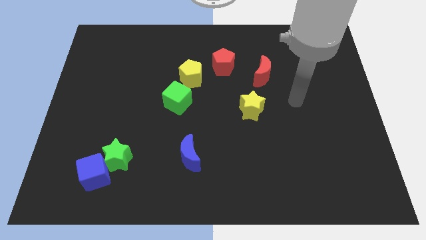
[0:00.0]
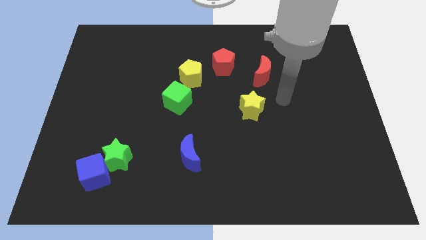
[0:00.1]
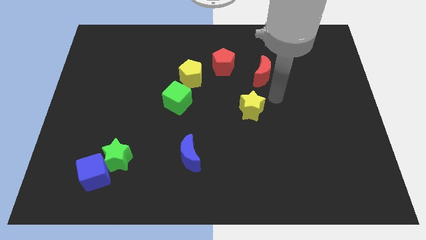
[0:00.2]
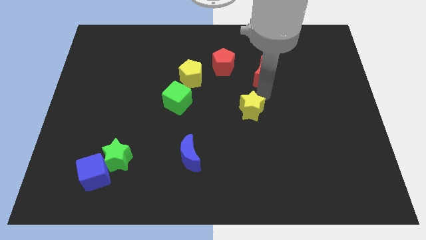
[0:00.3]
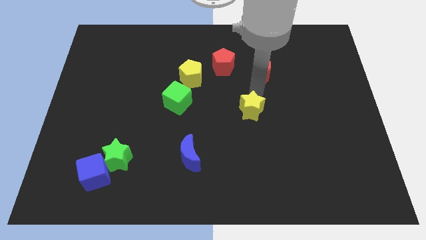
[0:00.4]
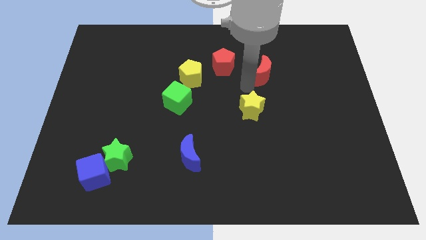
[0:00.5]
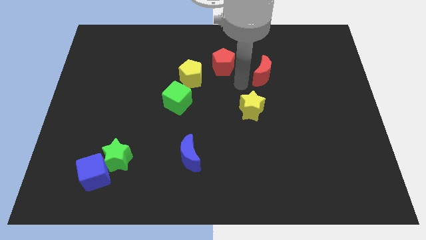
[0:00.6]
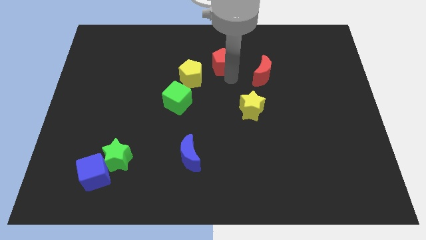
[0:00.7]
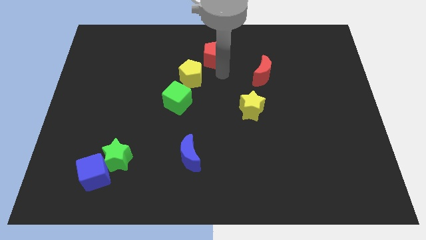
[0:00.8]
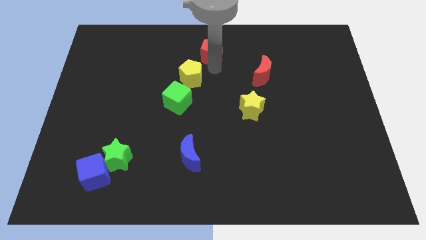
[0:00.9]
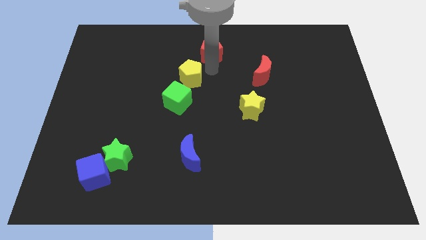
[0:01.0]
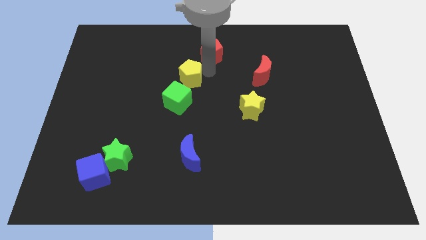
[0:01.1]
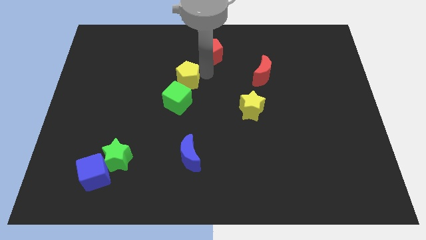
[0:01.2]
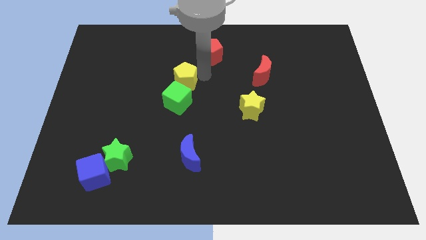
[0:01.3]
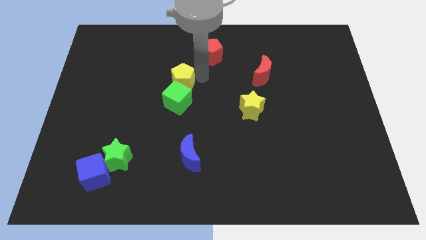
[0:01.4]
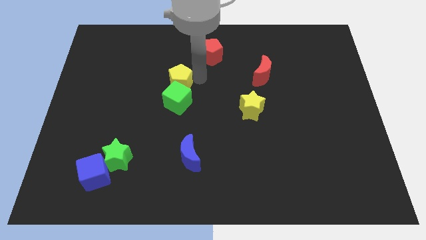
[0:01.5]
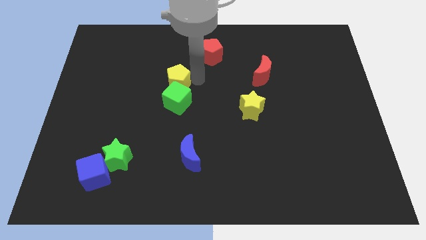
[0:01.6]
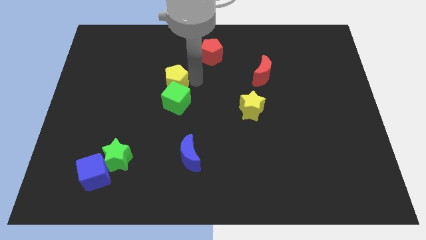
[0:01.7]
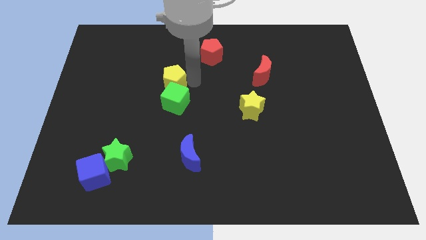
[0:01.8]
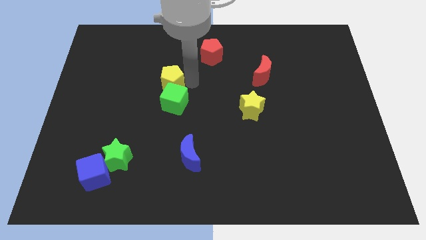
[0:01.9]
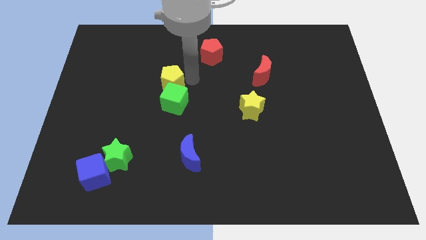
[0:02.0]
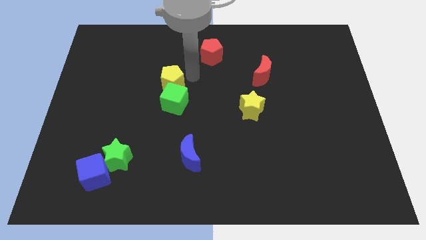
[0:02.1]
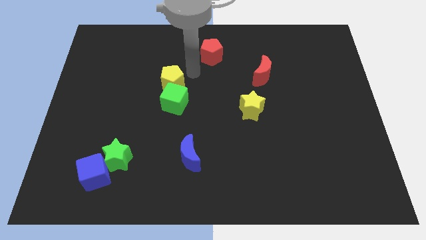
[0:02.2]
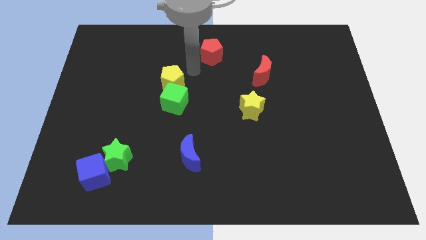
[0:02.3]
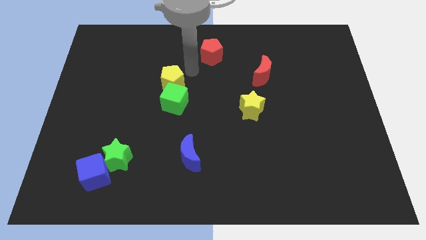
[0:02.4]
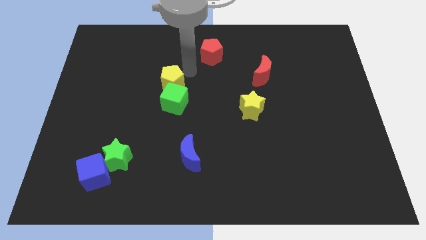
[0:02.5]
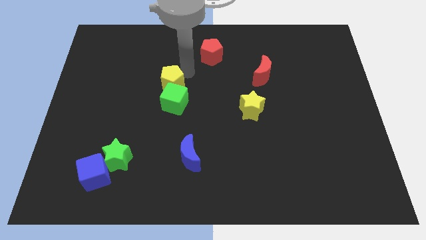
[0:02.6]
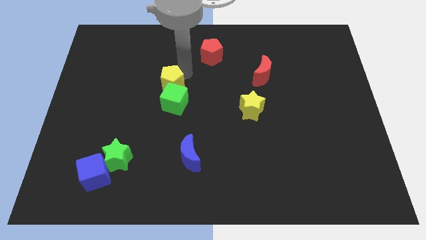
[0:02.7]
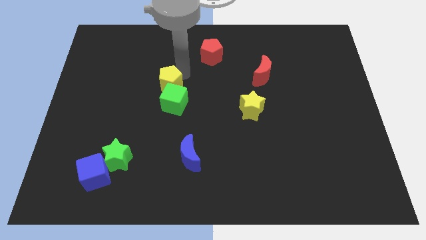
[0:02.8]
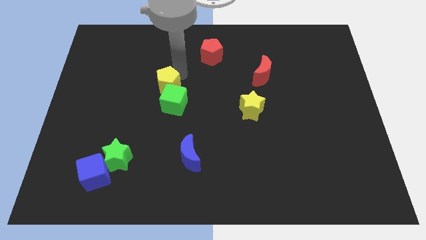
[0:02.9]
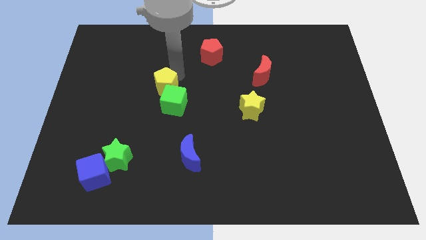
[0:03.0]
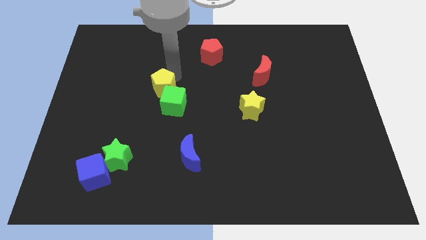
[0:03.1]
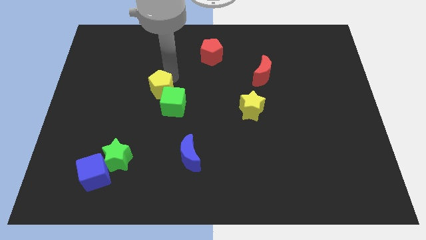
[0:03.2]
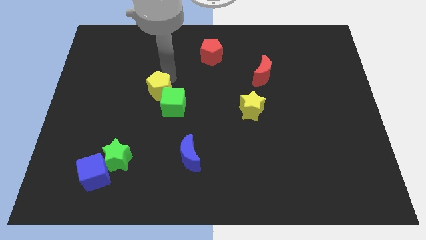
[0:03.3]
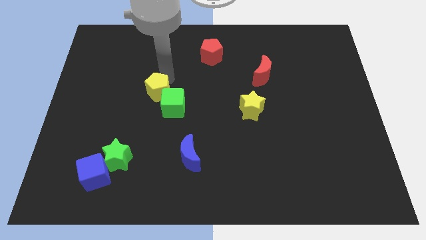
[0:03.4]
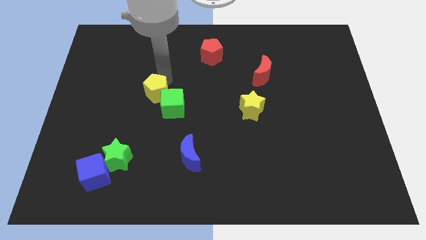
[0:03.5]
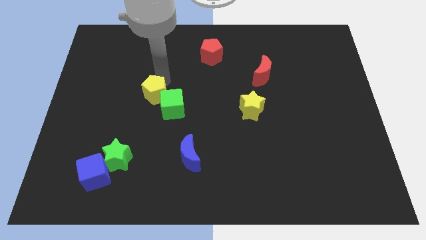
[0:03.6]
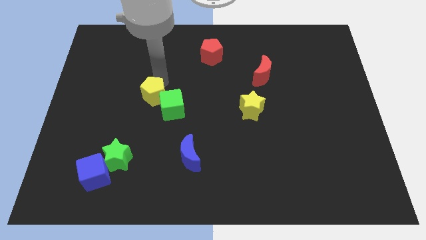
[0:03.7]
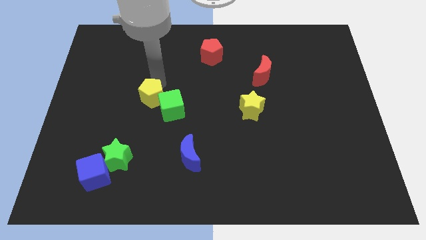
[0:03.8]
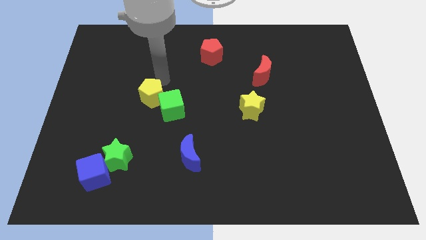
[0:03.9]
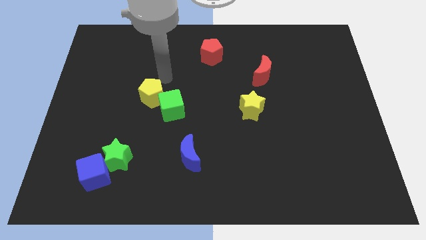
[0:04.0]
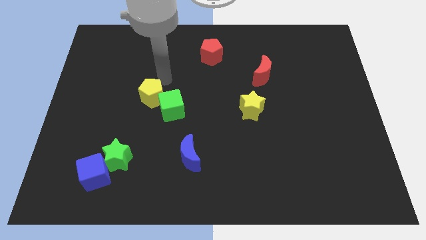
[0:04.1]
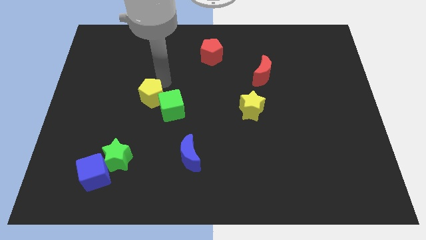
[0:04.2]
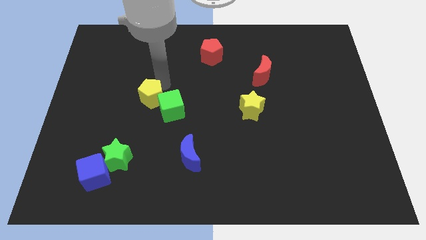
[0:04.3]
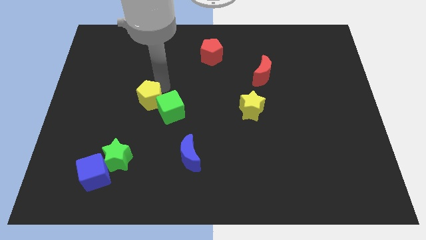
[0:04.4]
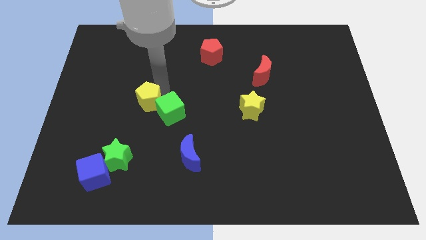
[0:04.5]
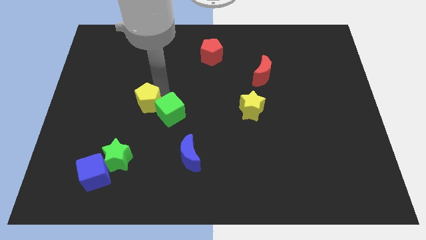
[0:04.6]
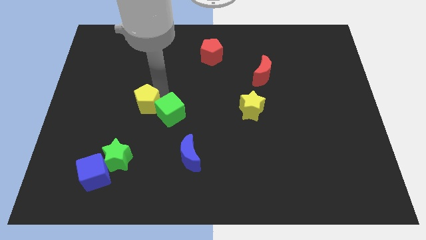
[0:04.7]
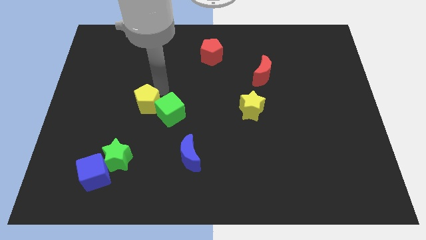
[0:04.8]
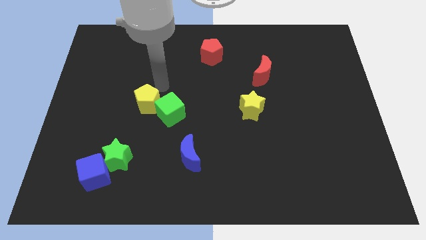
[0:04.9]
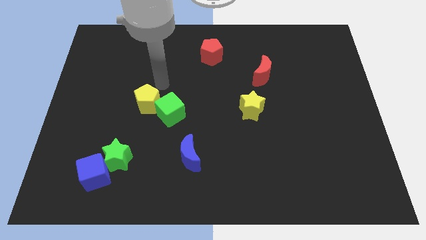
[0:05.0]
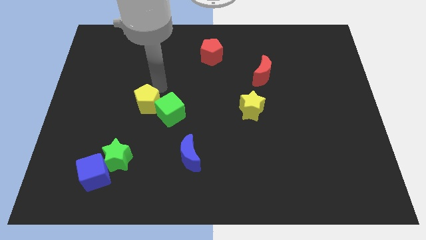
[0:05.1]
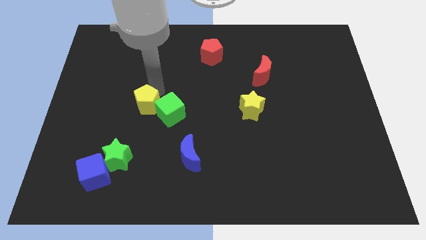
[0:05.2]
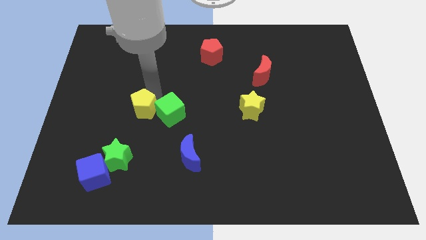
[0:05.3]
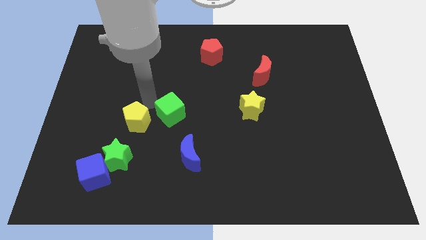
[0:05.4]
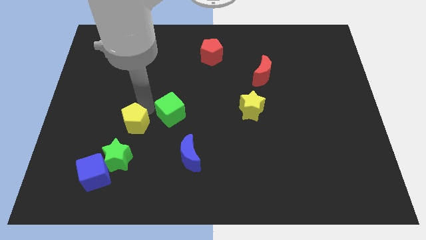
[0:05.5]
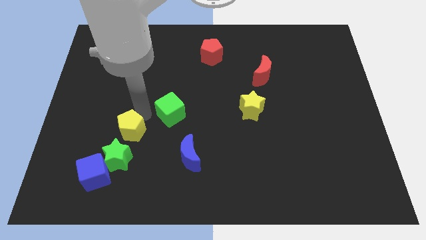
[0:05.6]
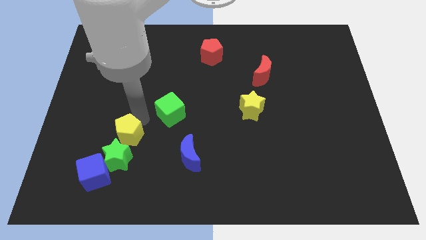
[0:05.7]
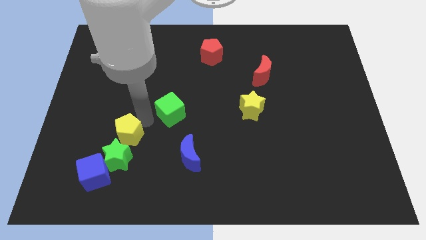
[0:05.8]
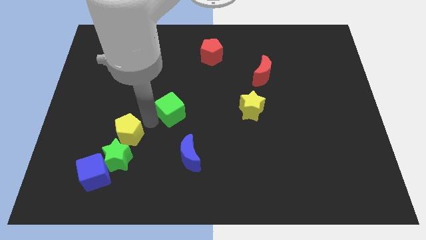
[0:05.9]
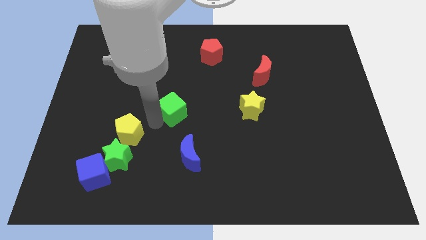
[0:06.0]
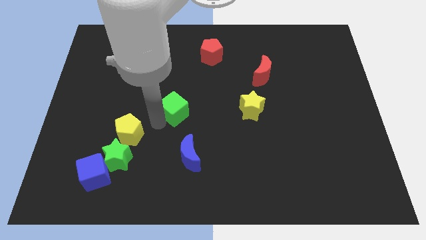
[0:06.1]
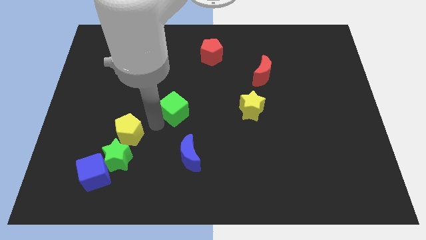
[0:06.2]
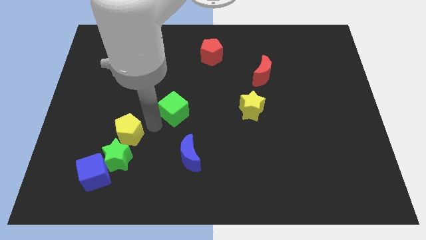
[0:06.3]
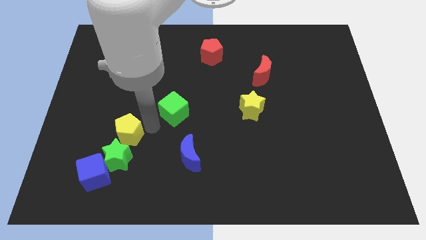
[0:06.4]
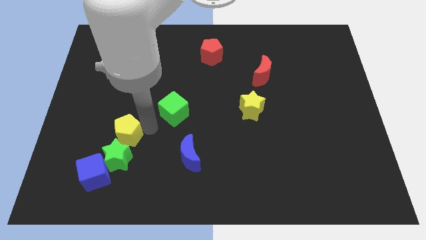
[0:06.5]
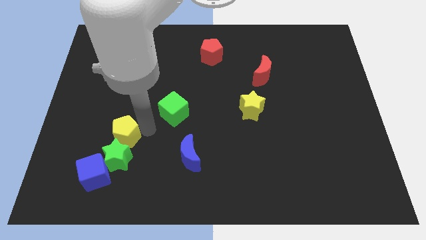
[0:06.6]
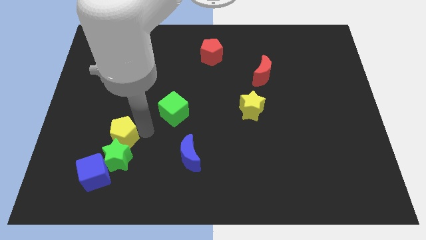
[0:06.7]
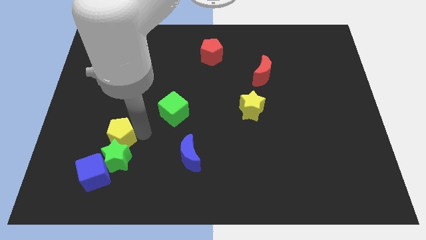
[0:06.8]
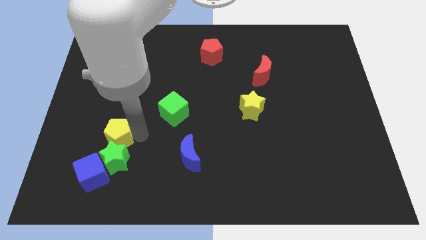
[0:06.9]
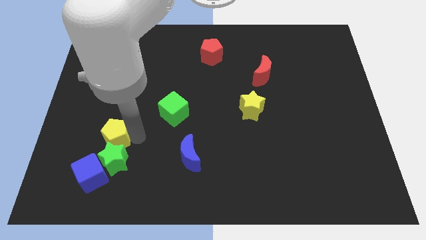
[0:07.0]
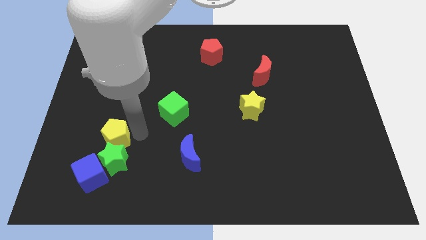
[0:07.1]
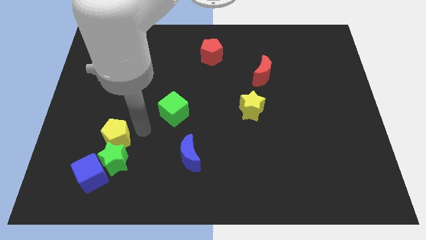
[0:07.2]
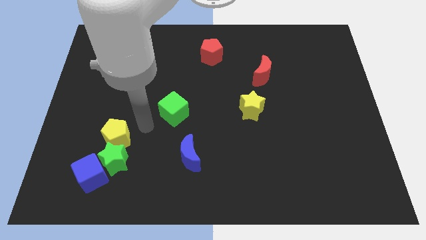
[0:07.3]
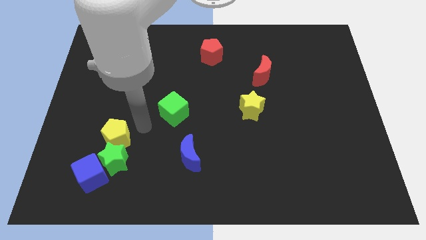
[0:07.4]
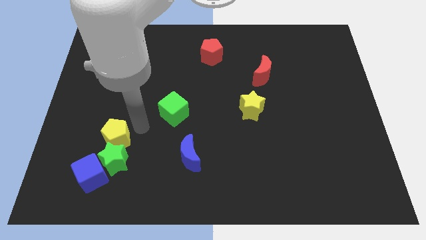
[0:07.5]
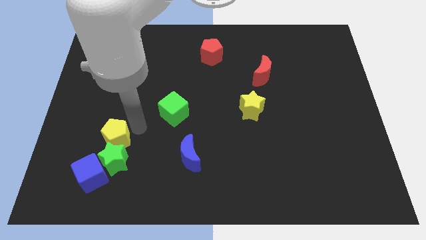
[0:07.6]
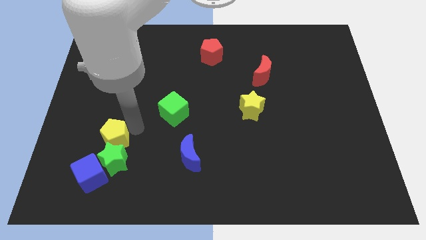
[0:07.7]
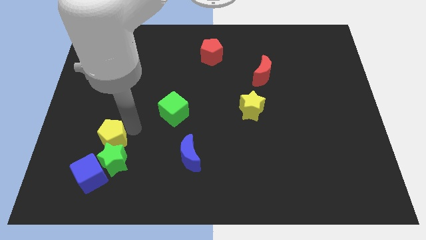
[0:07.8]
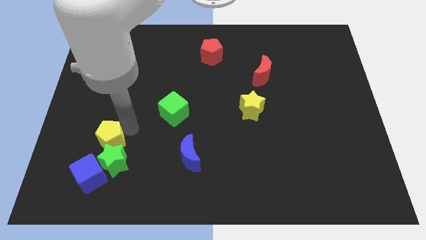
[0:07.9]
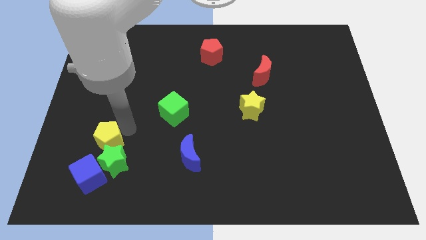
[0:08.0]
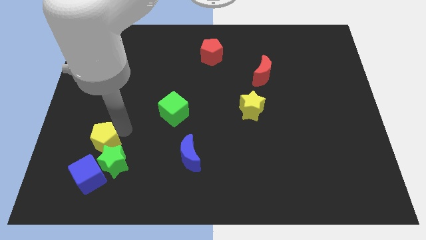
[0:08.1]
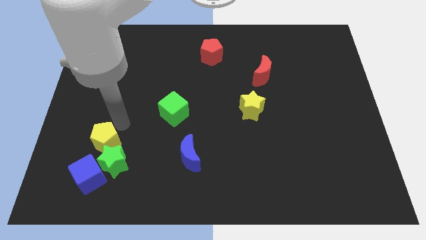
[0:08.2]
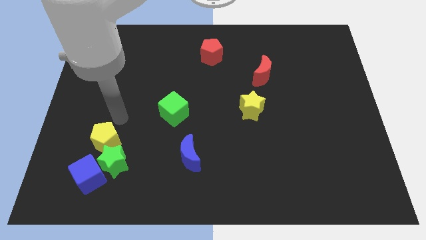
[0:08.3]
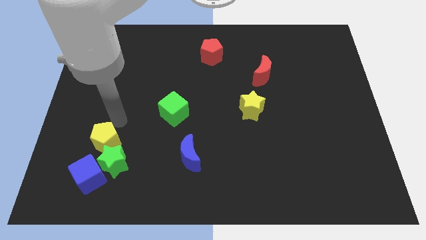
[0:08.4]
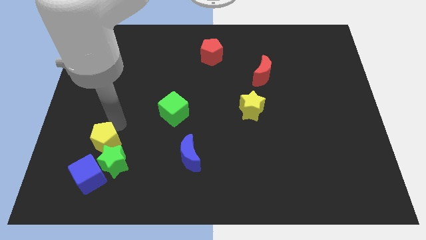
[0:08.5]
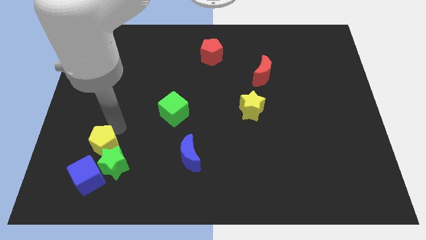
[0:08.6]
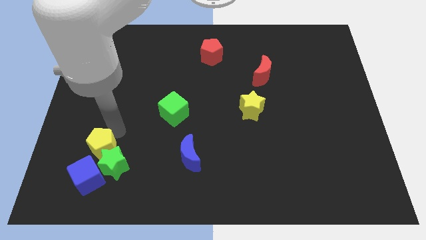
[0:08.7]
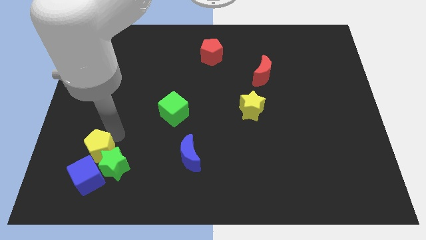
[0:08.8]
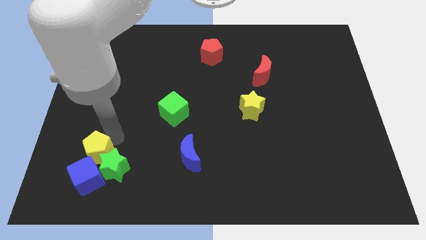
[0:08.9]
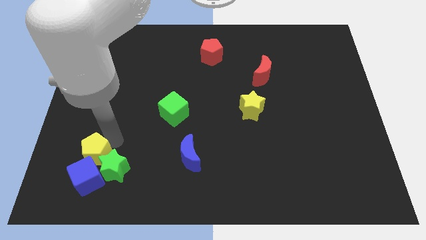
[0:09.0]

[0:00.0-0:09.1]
slide the yellow pentagon to the blue cube
